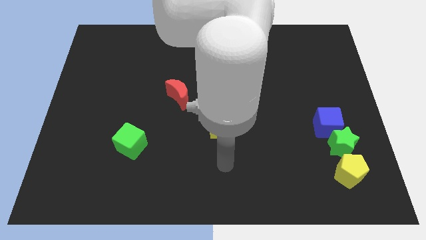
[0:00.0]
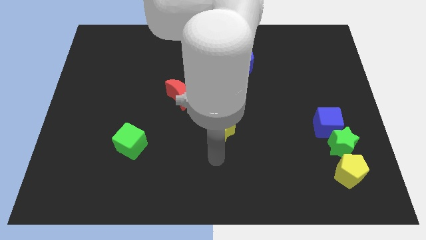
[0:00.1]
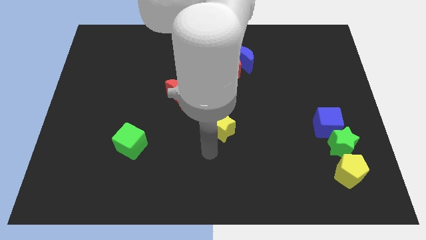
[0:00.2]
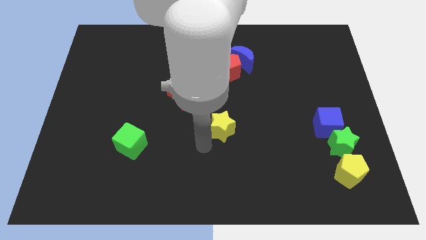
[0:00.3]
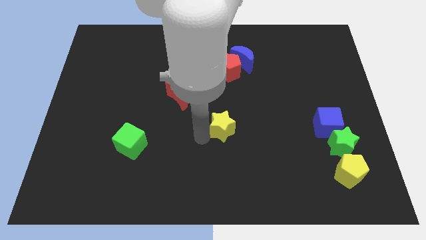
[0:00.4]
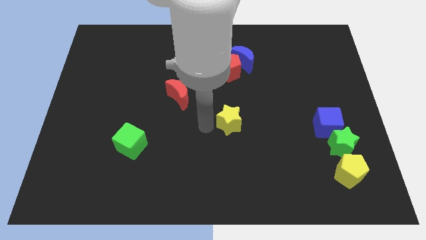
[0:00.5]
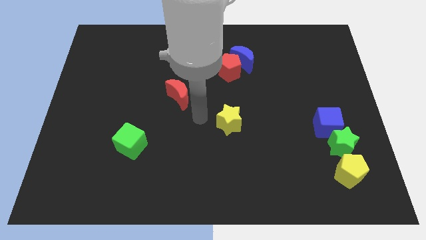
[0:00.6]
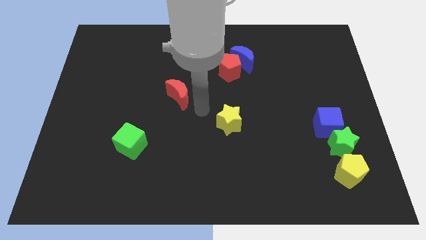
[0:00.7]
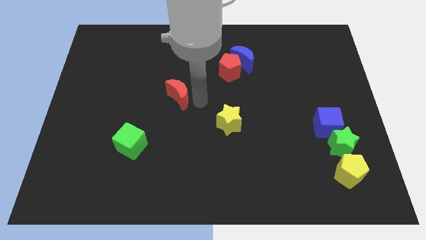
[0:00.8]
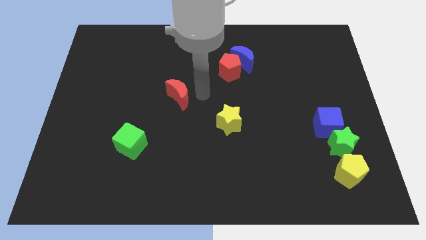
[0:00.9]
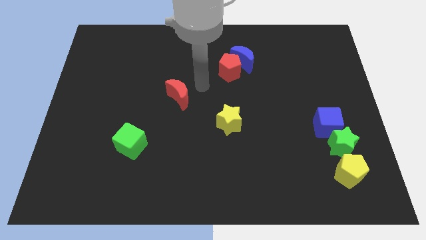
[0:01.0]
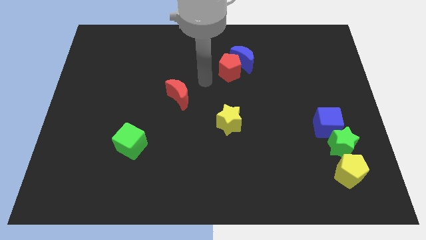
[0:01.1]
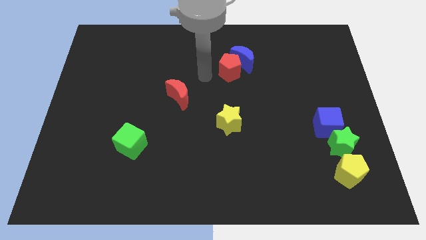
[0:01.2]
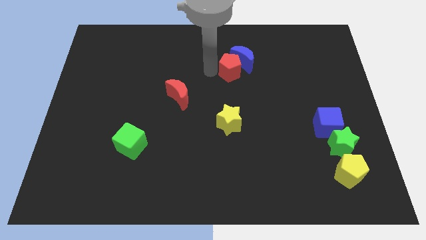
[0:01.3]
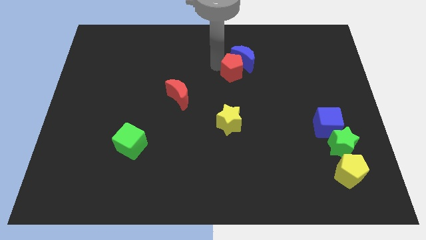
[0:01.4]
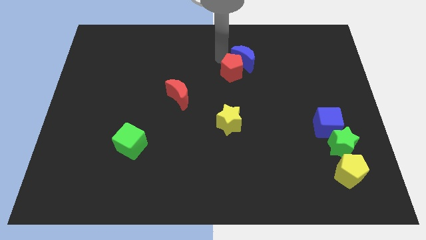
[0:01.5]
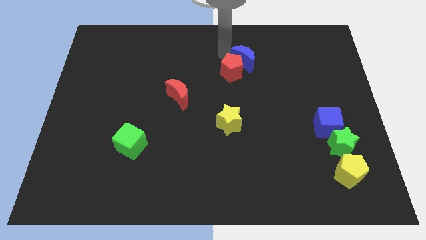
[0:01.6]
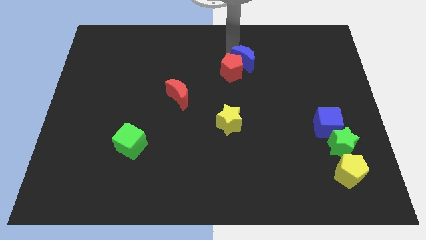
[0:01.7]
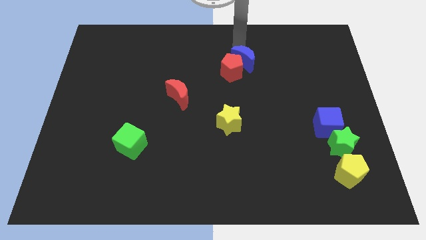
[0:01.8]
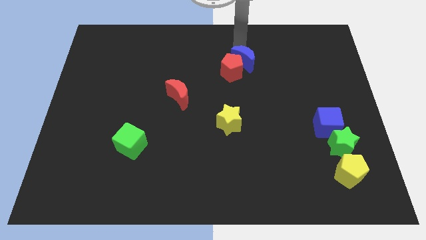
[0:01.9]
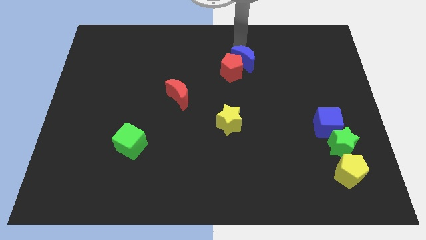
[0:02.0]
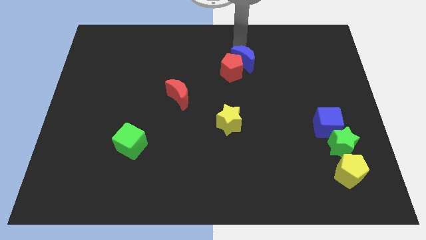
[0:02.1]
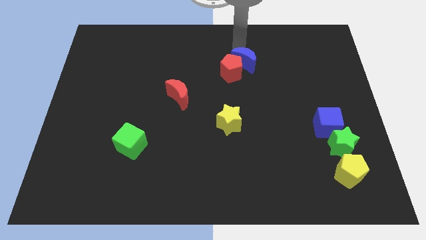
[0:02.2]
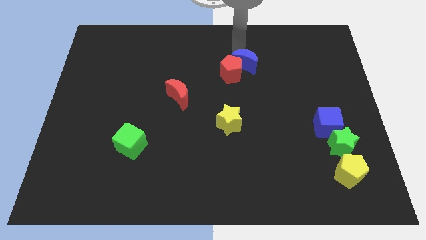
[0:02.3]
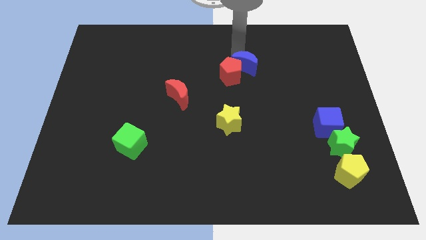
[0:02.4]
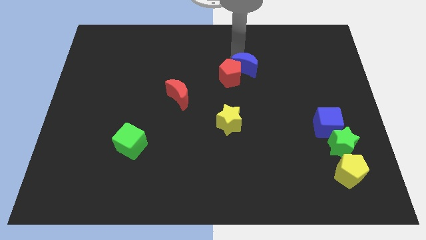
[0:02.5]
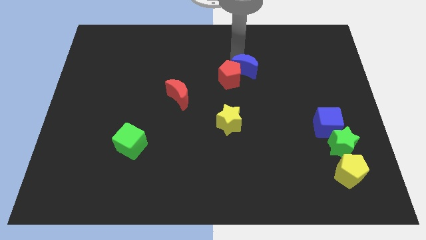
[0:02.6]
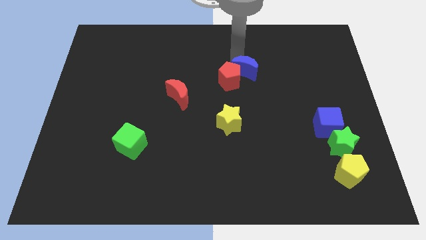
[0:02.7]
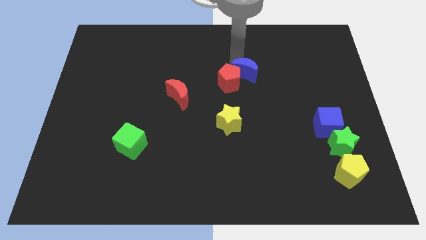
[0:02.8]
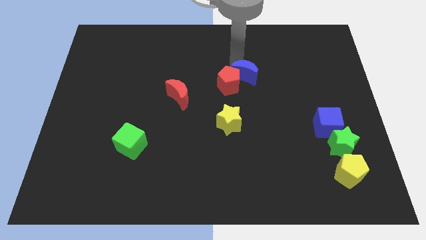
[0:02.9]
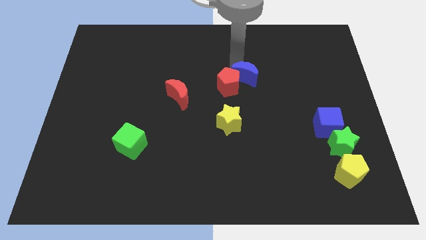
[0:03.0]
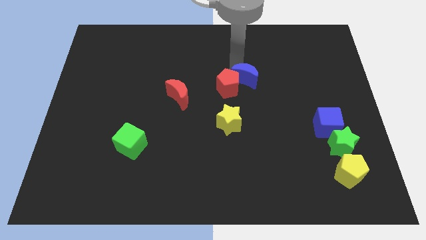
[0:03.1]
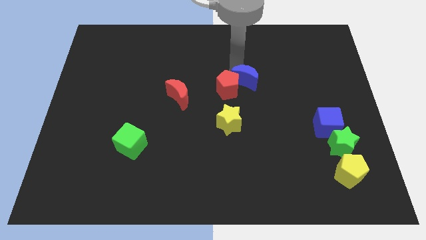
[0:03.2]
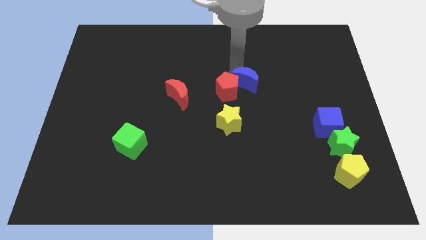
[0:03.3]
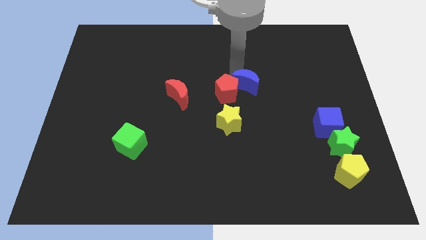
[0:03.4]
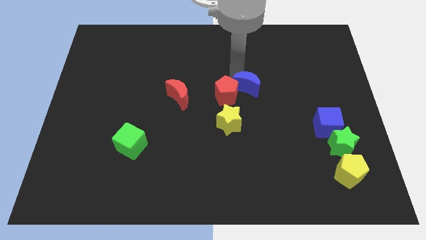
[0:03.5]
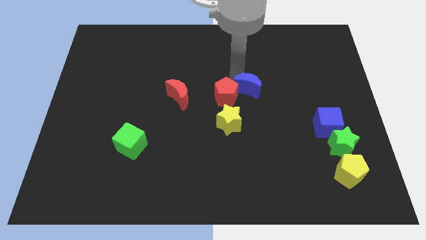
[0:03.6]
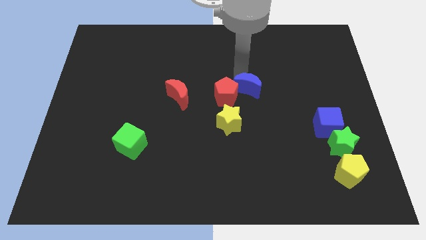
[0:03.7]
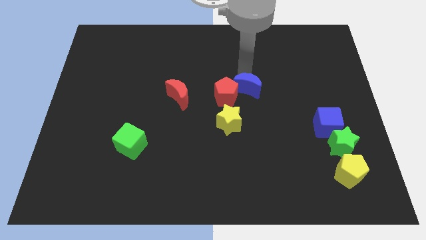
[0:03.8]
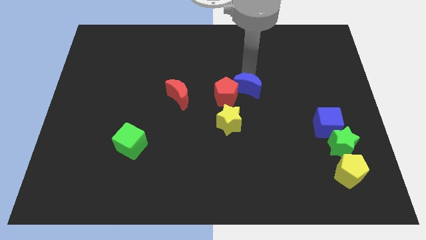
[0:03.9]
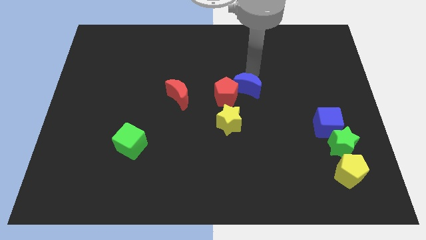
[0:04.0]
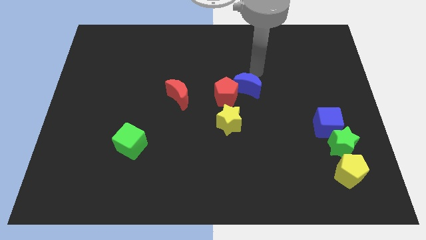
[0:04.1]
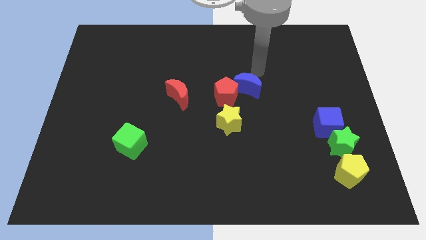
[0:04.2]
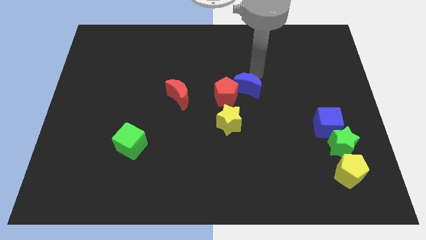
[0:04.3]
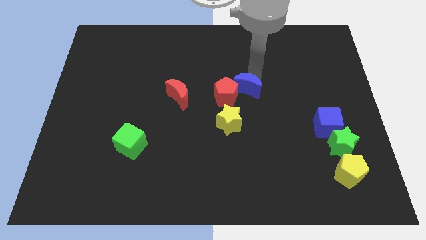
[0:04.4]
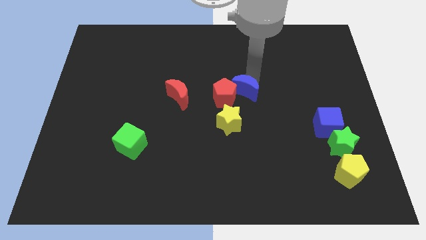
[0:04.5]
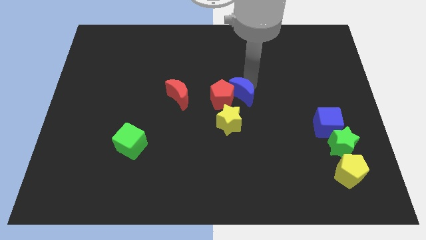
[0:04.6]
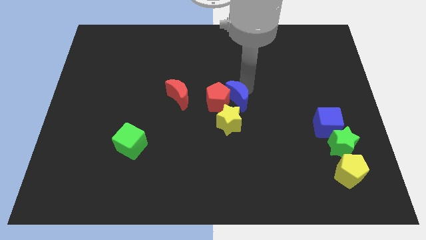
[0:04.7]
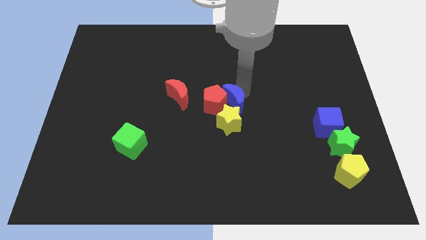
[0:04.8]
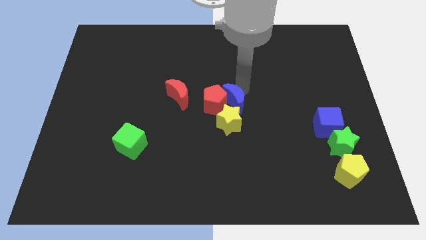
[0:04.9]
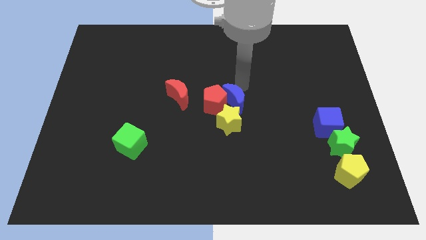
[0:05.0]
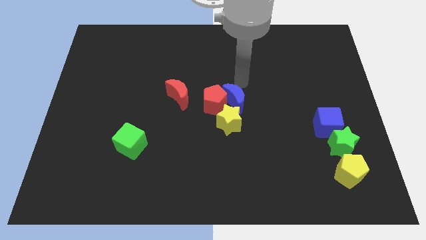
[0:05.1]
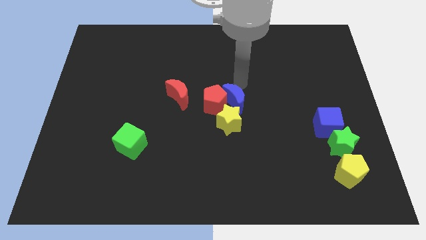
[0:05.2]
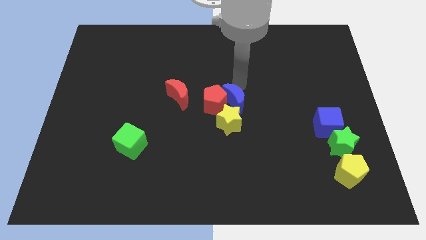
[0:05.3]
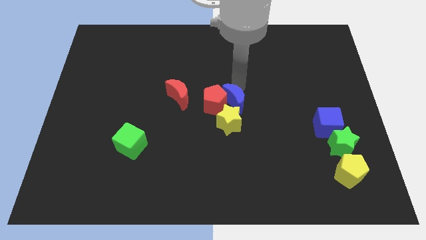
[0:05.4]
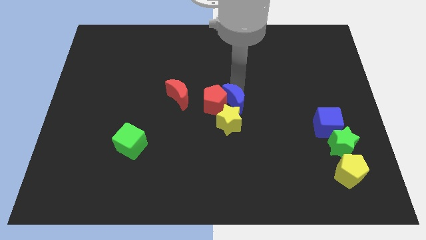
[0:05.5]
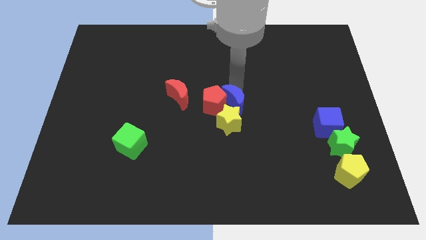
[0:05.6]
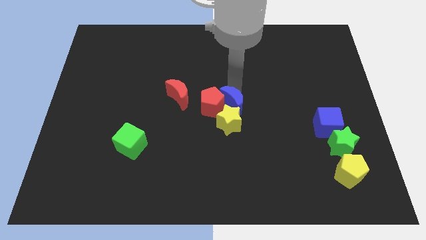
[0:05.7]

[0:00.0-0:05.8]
push the blue moon close to the yellow star

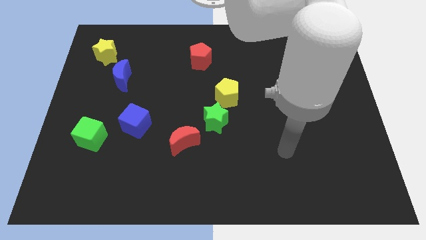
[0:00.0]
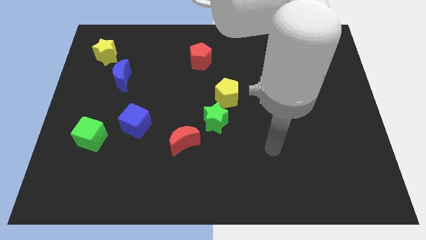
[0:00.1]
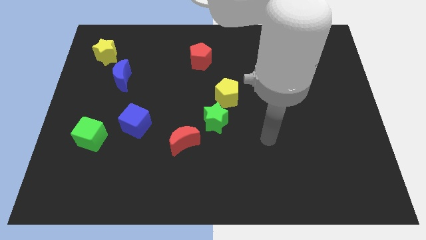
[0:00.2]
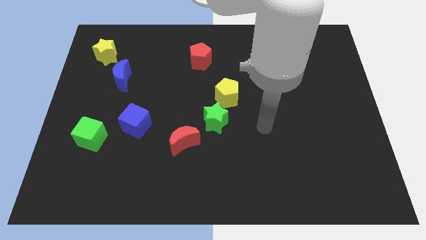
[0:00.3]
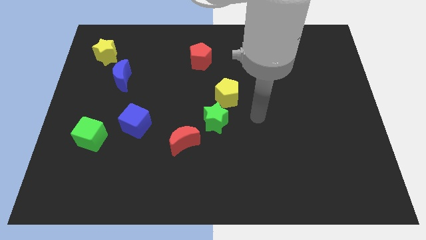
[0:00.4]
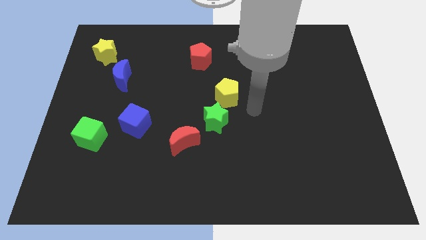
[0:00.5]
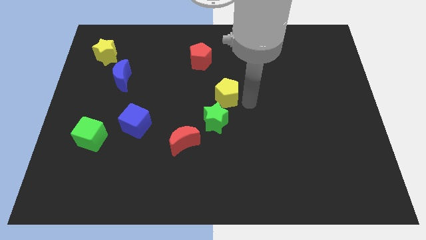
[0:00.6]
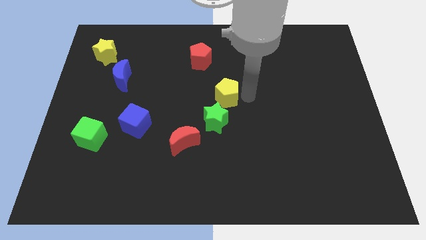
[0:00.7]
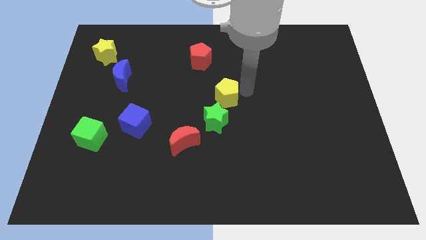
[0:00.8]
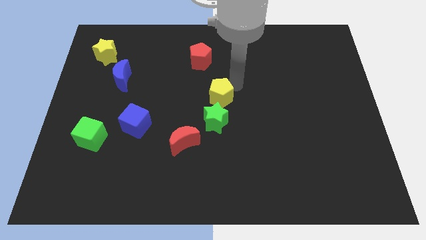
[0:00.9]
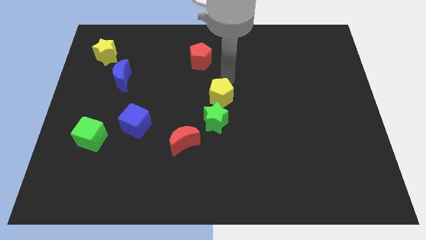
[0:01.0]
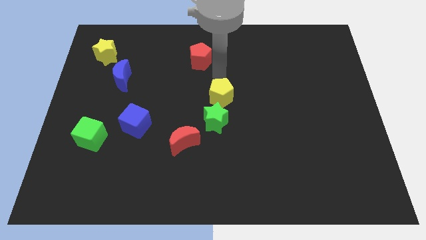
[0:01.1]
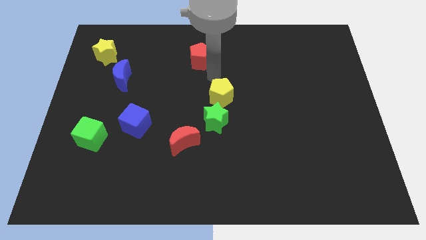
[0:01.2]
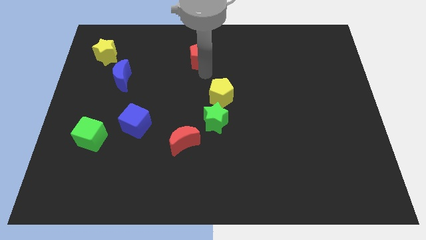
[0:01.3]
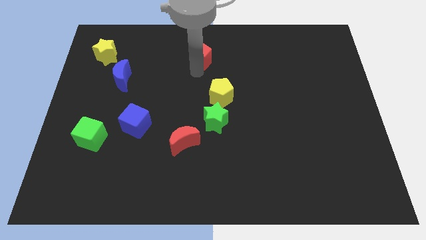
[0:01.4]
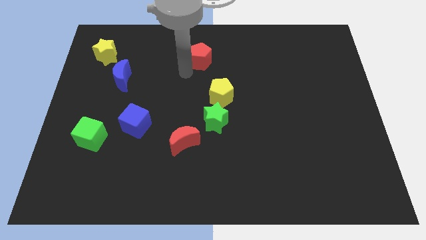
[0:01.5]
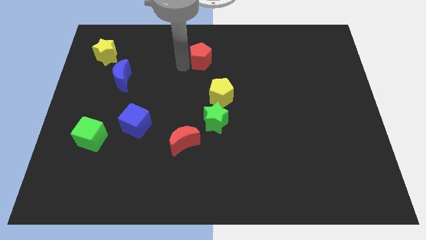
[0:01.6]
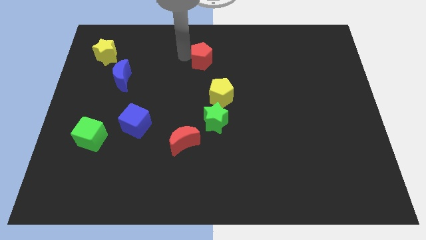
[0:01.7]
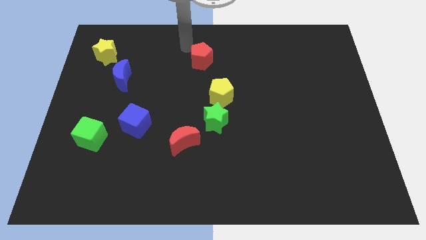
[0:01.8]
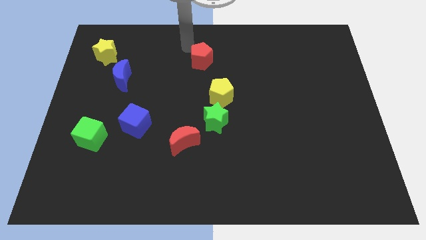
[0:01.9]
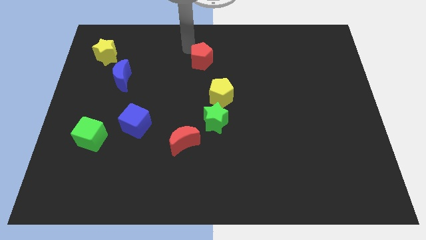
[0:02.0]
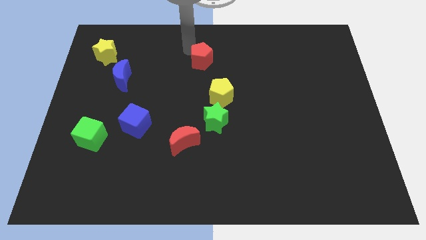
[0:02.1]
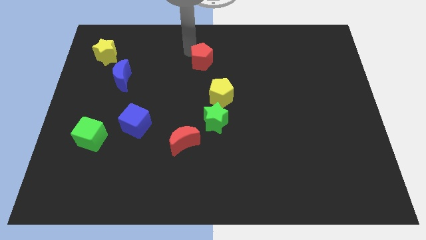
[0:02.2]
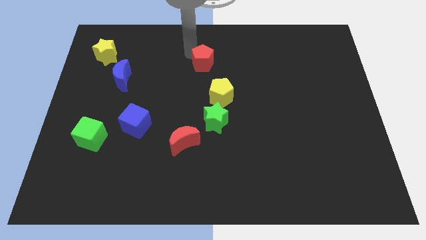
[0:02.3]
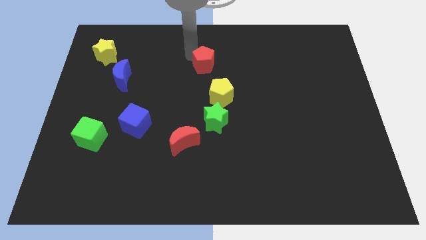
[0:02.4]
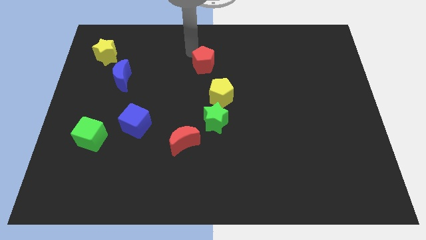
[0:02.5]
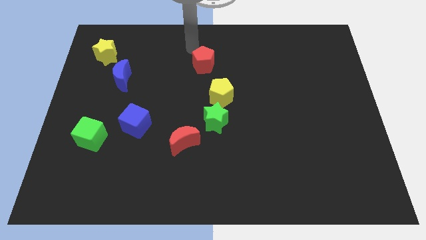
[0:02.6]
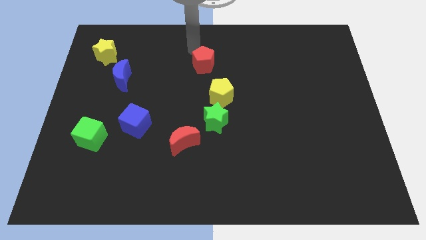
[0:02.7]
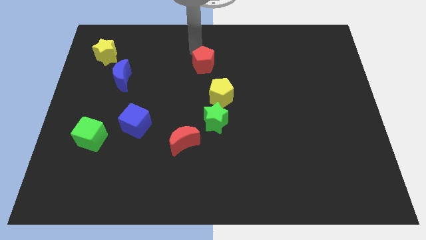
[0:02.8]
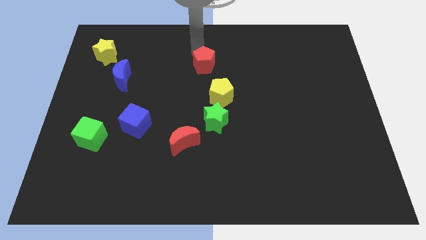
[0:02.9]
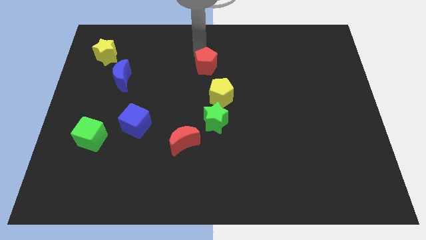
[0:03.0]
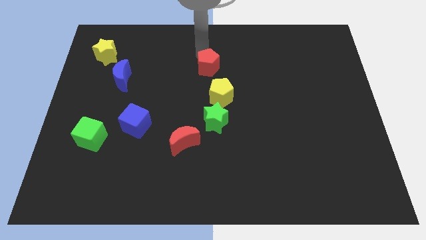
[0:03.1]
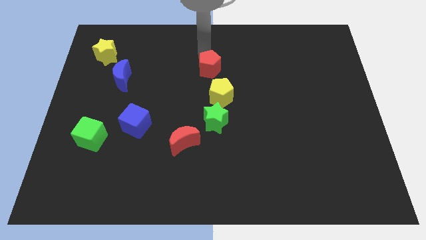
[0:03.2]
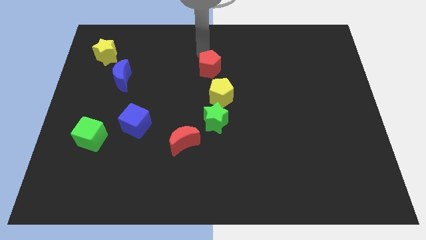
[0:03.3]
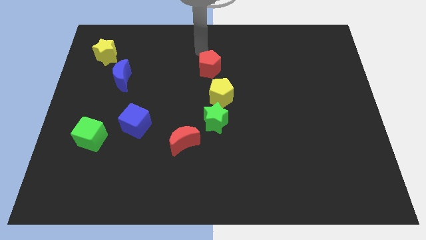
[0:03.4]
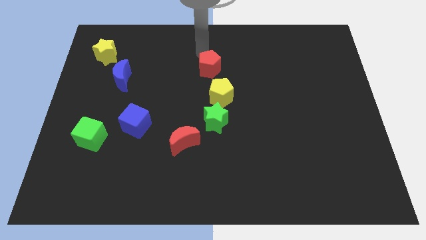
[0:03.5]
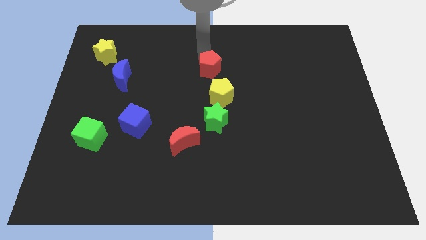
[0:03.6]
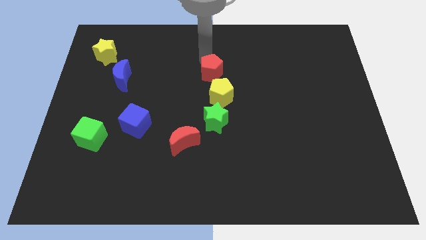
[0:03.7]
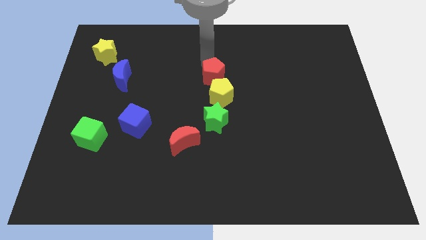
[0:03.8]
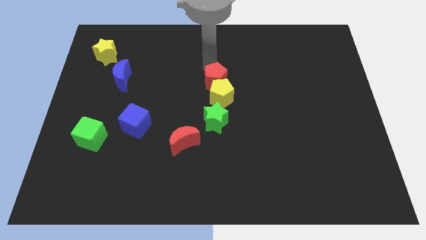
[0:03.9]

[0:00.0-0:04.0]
move the red pentagon to the yellow pentagon
